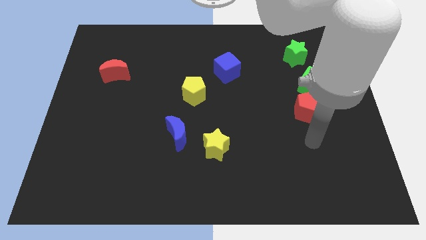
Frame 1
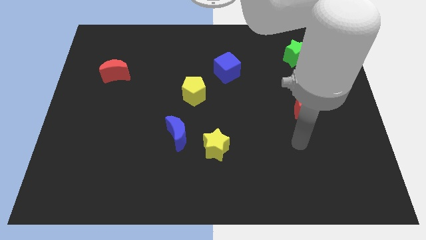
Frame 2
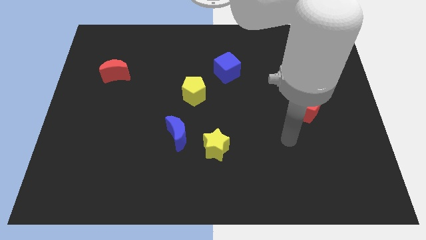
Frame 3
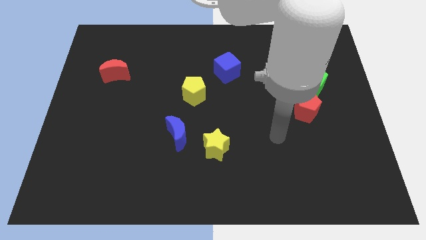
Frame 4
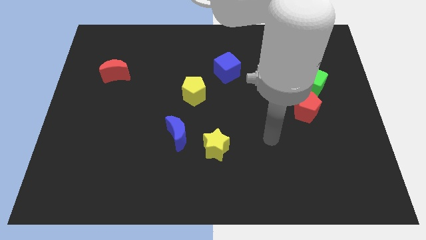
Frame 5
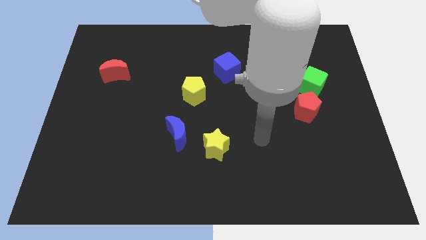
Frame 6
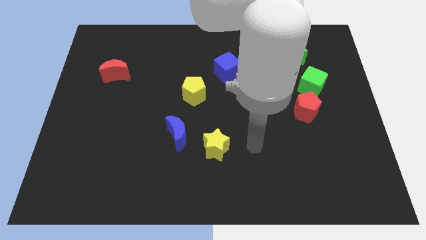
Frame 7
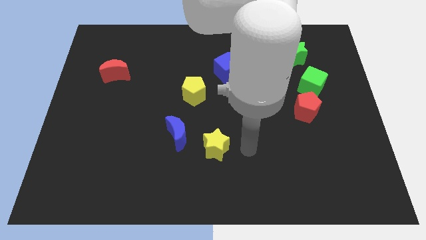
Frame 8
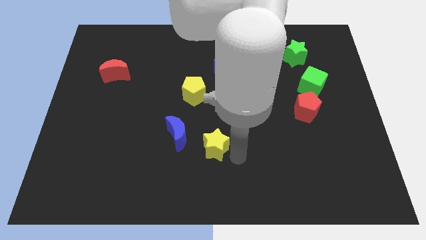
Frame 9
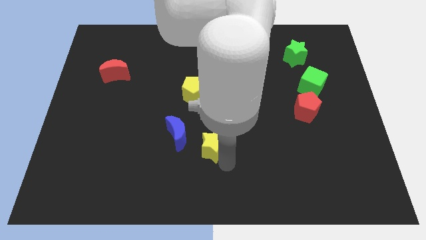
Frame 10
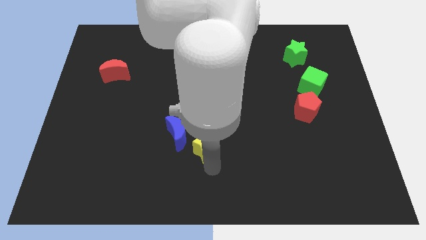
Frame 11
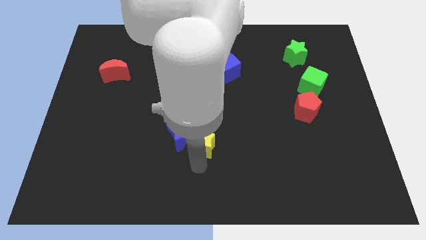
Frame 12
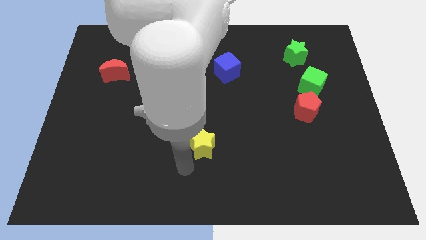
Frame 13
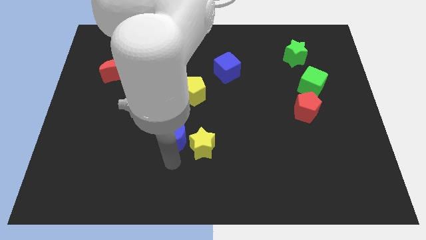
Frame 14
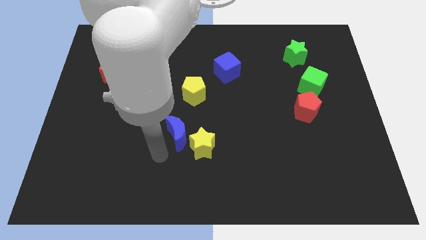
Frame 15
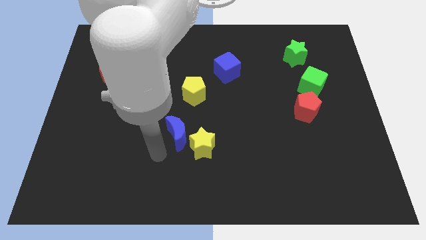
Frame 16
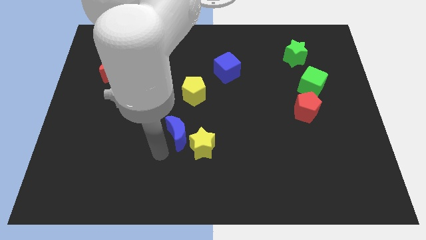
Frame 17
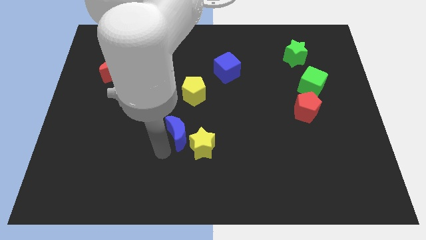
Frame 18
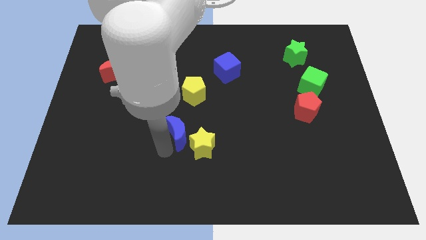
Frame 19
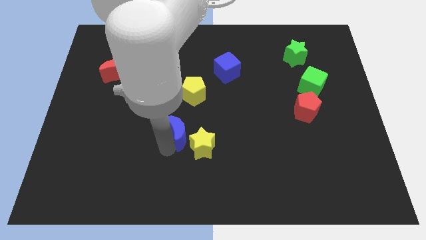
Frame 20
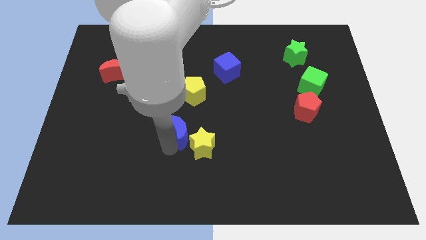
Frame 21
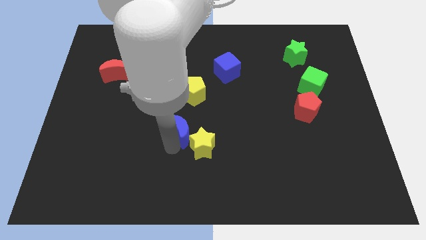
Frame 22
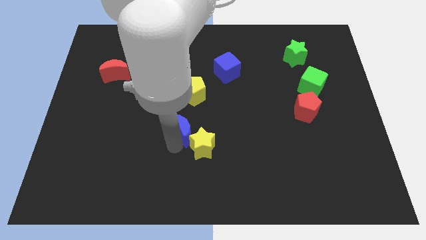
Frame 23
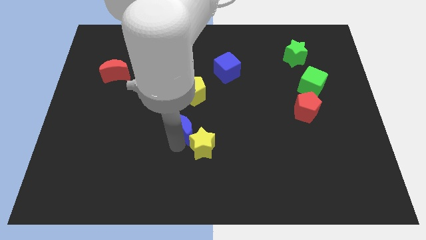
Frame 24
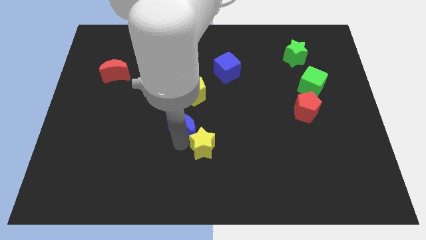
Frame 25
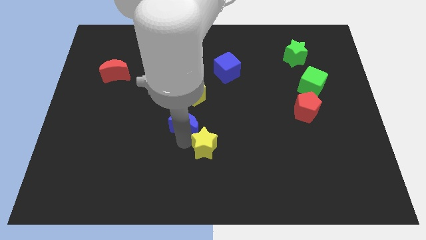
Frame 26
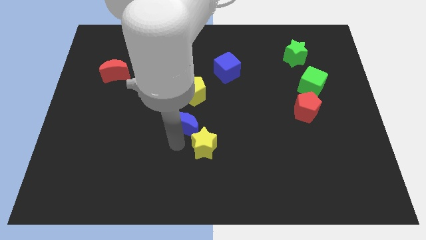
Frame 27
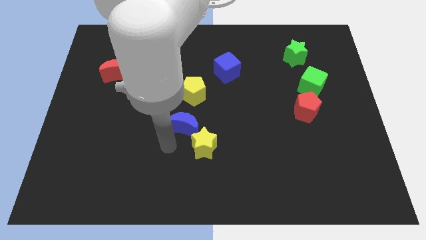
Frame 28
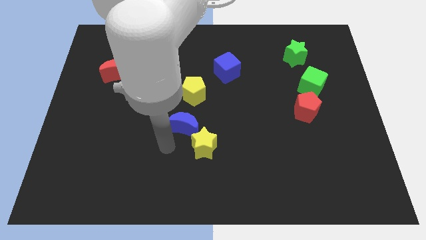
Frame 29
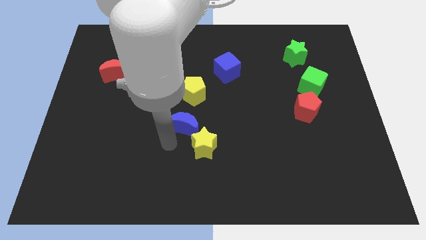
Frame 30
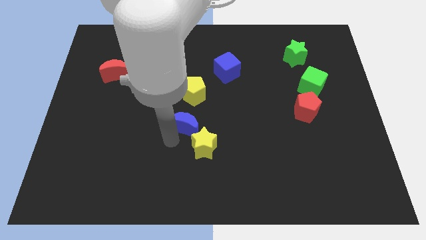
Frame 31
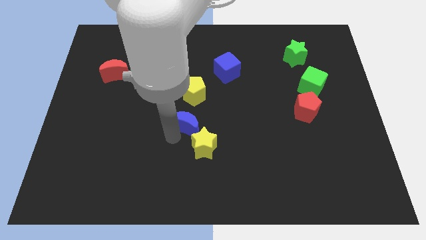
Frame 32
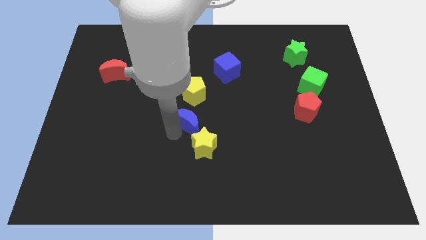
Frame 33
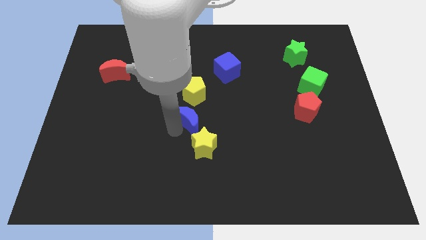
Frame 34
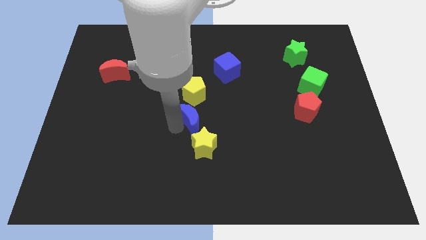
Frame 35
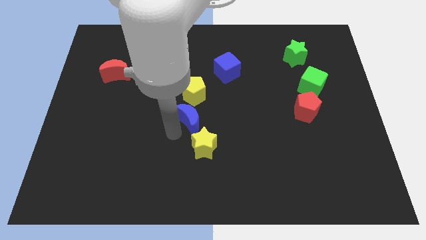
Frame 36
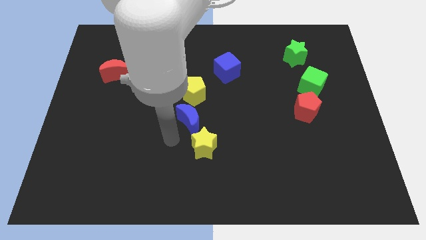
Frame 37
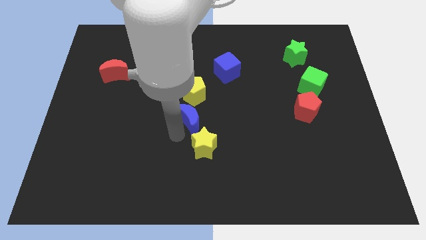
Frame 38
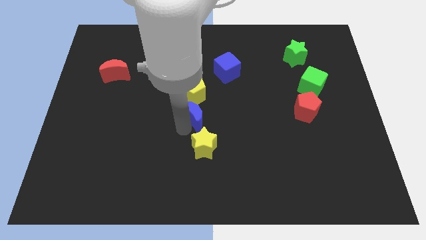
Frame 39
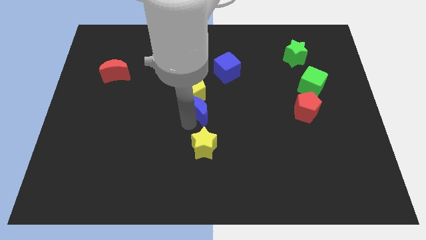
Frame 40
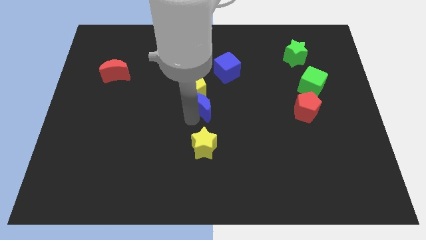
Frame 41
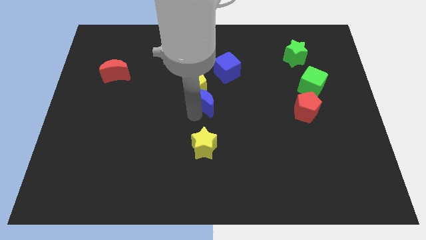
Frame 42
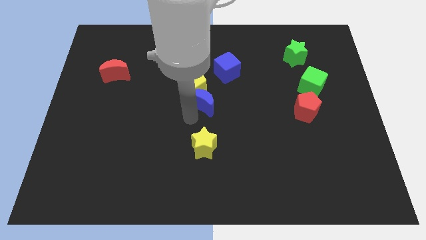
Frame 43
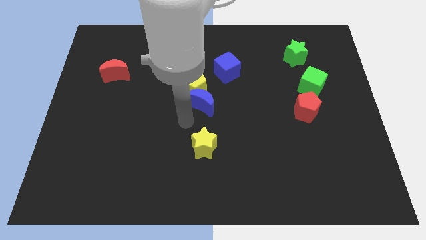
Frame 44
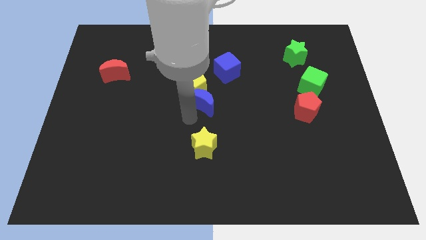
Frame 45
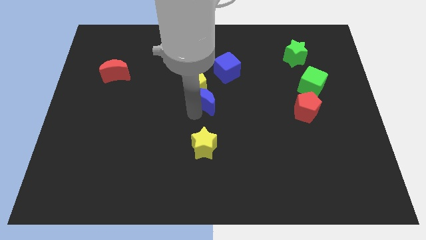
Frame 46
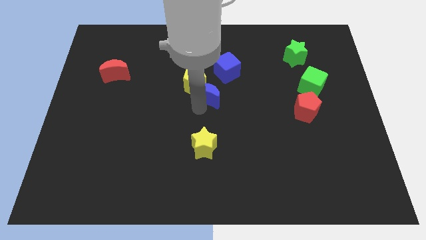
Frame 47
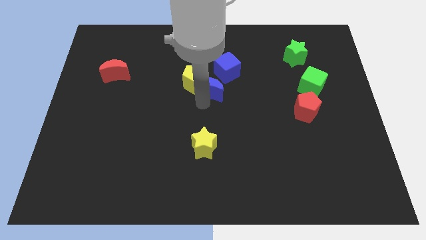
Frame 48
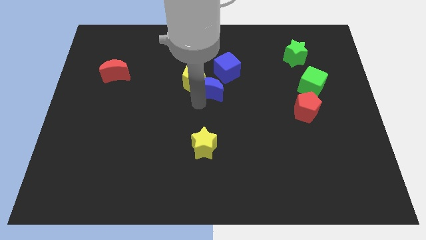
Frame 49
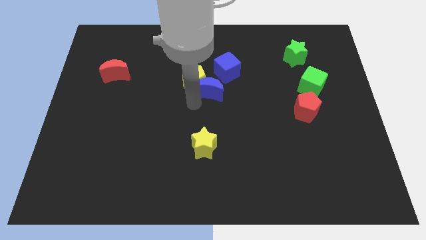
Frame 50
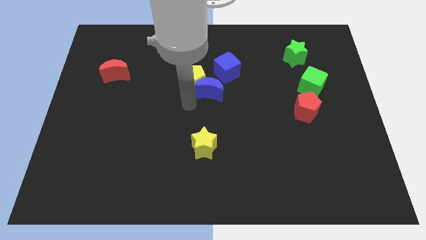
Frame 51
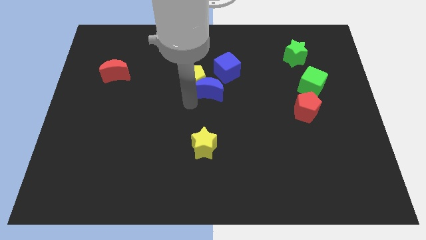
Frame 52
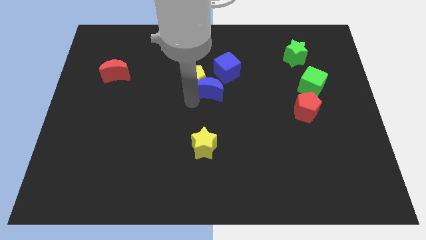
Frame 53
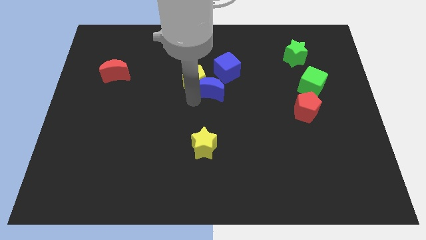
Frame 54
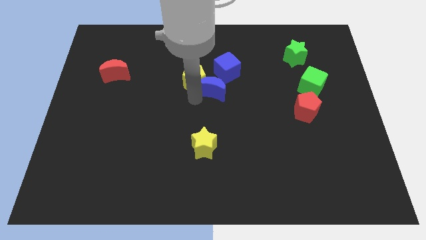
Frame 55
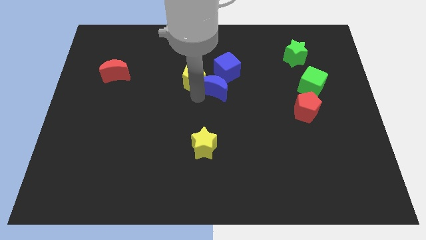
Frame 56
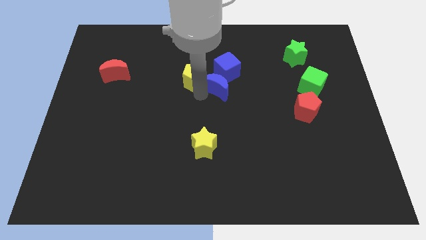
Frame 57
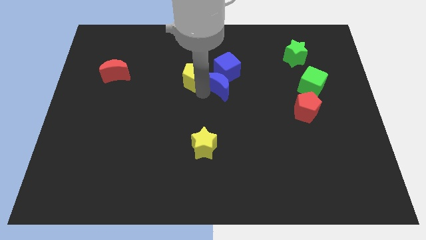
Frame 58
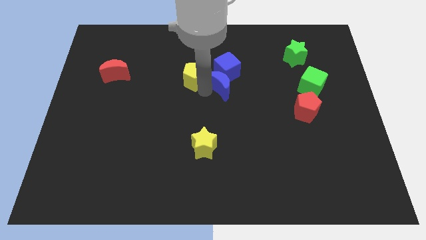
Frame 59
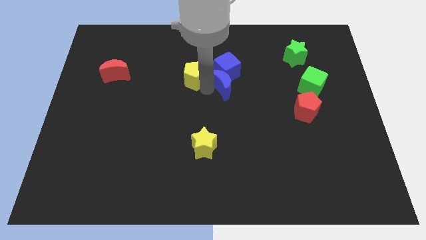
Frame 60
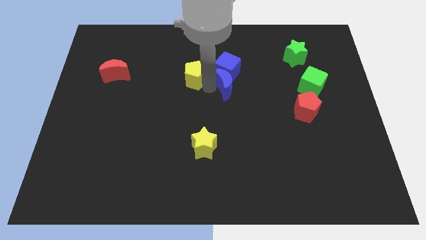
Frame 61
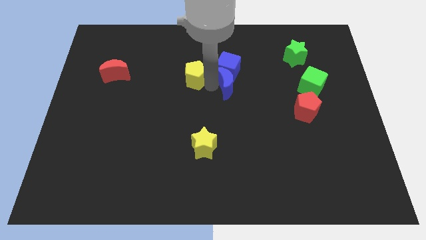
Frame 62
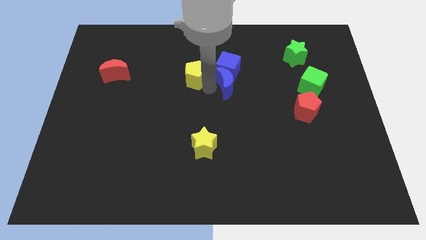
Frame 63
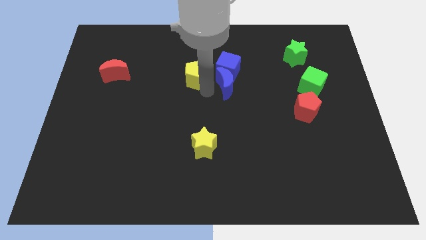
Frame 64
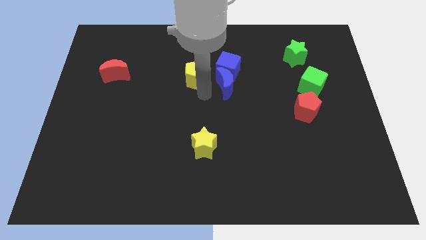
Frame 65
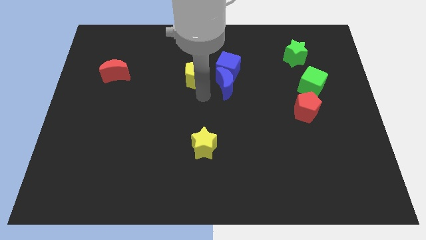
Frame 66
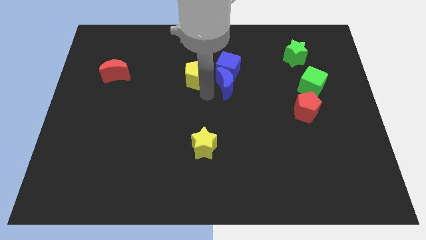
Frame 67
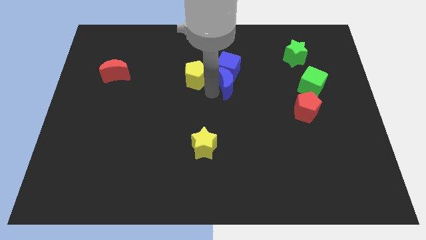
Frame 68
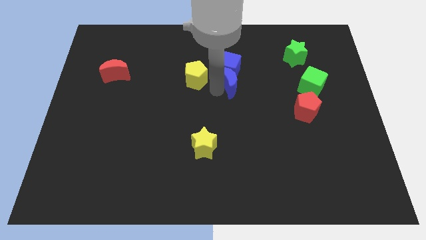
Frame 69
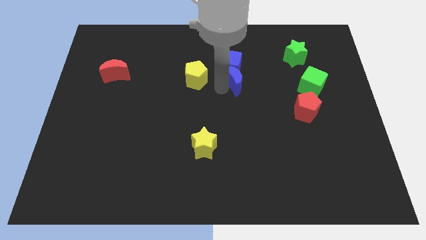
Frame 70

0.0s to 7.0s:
move the blue moon upwards and right

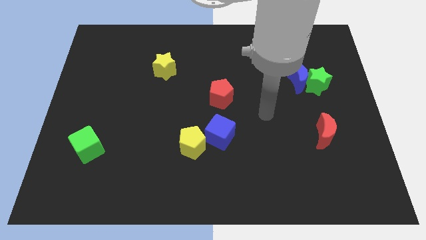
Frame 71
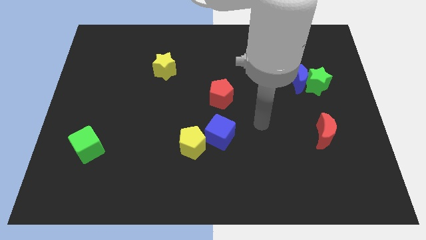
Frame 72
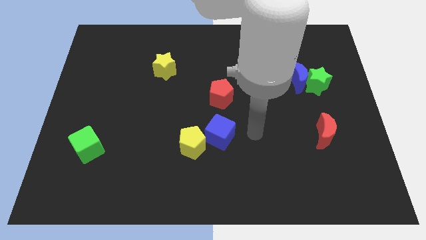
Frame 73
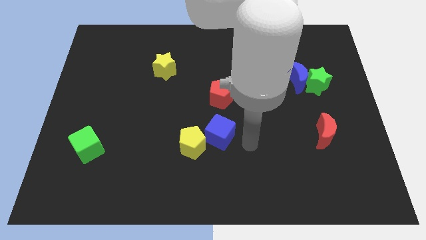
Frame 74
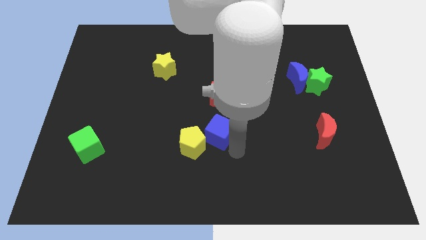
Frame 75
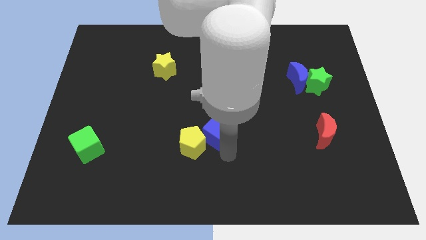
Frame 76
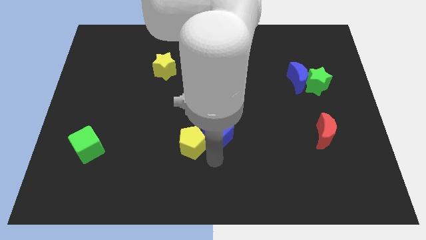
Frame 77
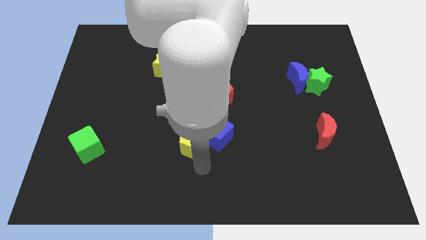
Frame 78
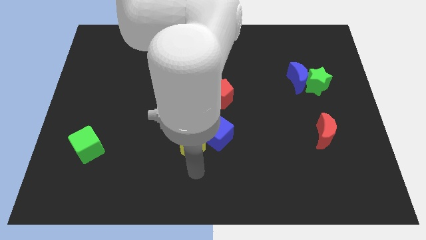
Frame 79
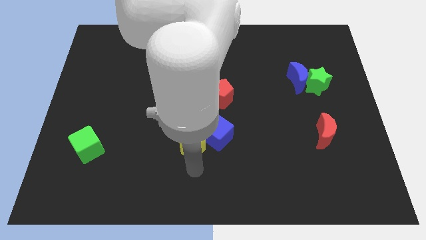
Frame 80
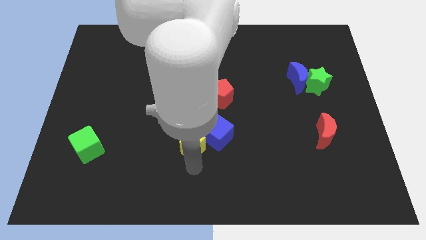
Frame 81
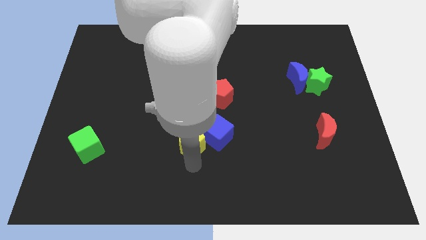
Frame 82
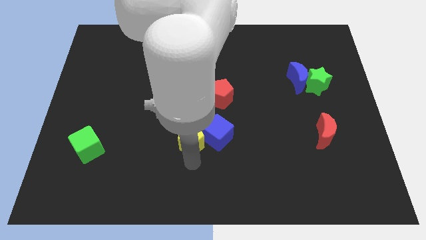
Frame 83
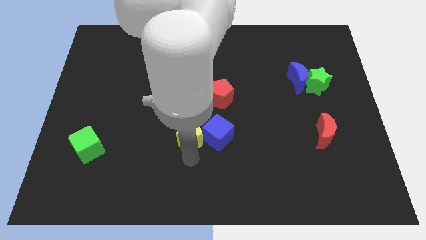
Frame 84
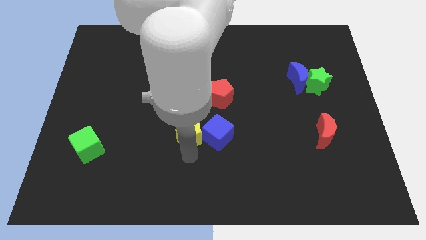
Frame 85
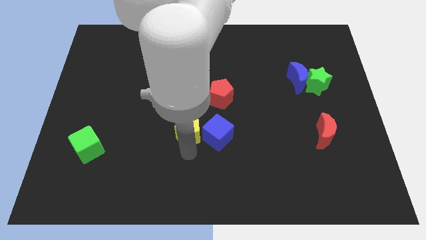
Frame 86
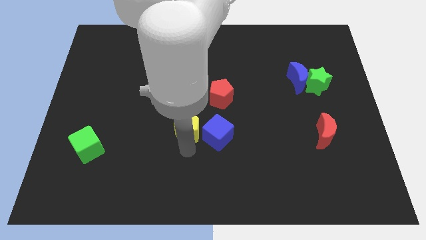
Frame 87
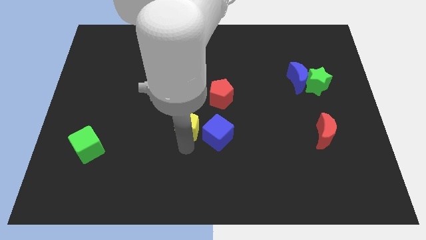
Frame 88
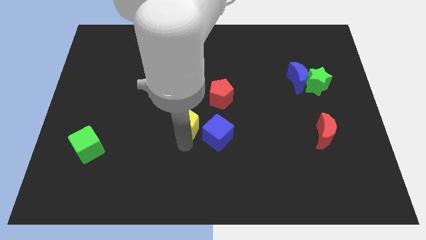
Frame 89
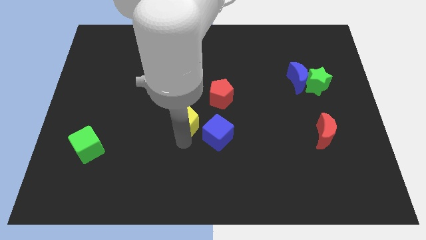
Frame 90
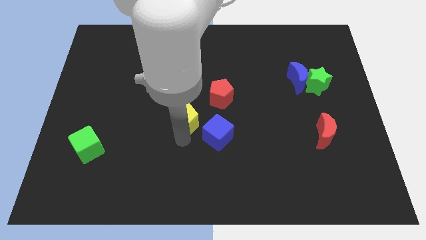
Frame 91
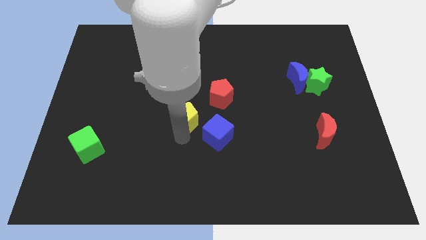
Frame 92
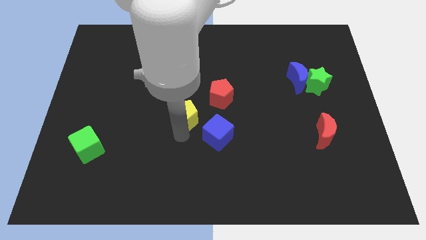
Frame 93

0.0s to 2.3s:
slightly move the yellow pentagon upwards
